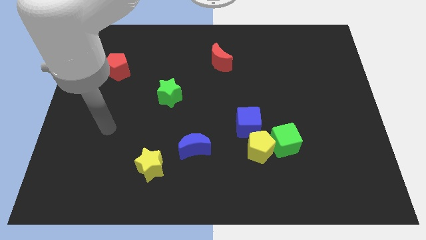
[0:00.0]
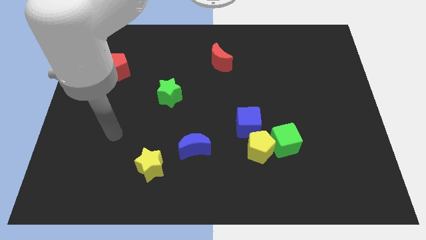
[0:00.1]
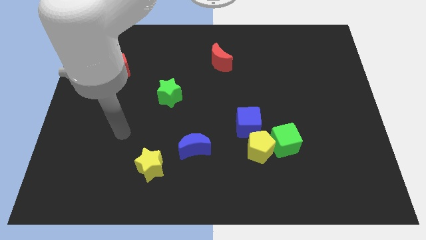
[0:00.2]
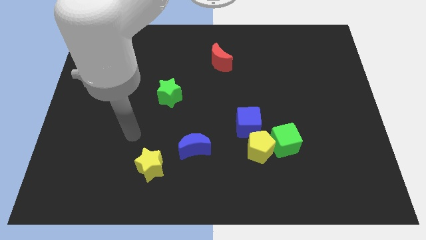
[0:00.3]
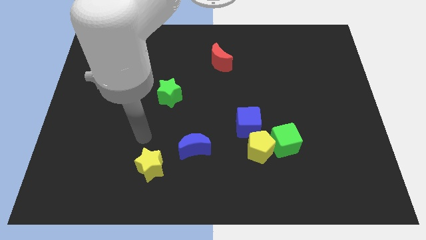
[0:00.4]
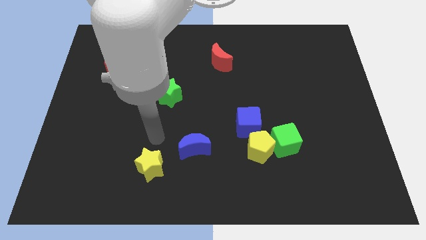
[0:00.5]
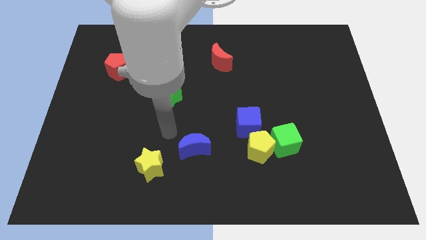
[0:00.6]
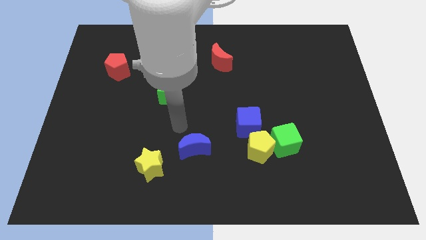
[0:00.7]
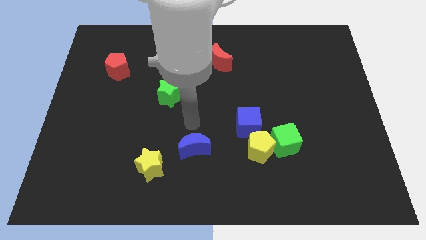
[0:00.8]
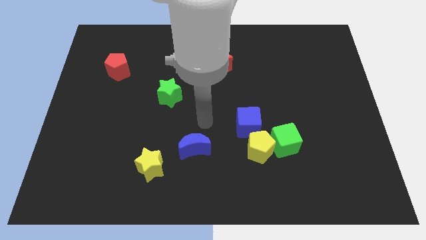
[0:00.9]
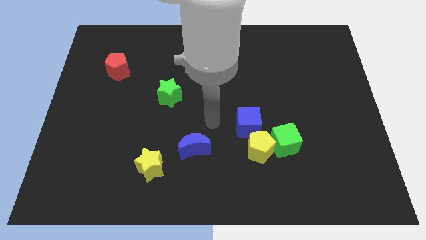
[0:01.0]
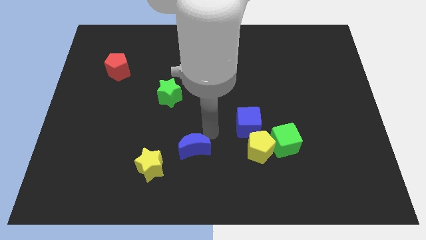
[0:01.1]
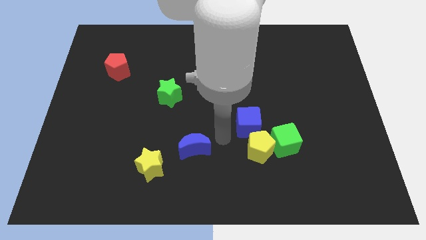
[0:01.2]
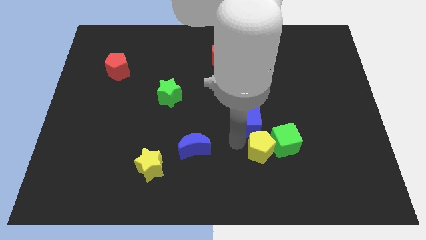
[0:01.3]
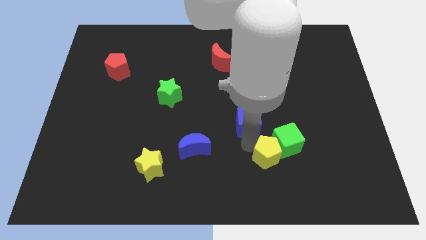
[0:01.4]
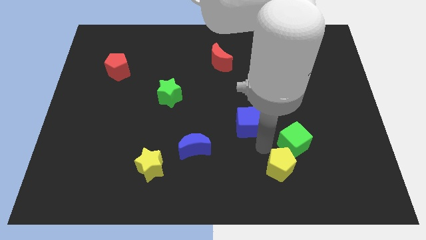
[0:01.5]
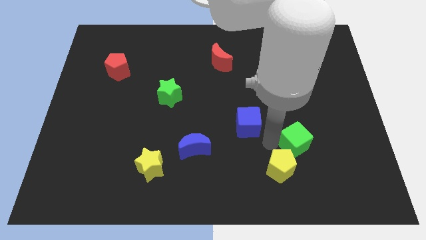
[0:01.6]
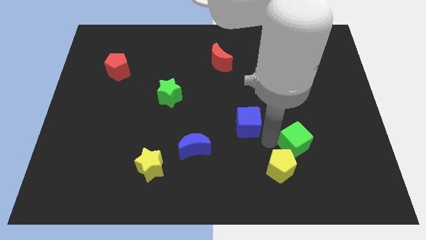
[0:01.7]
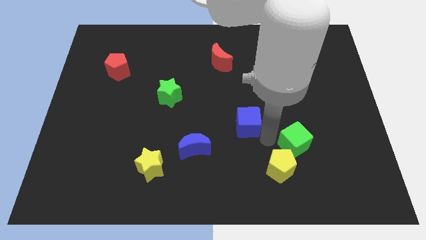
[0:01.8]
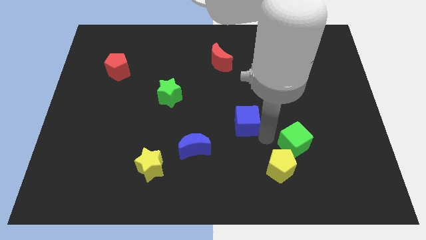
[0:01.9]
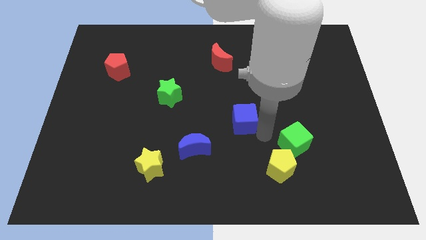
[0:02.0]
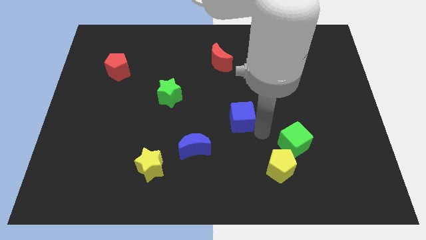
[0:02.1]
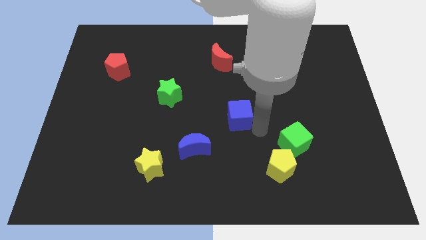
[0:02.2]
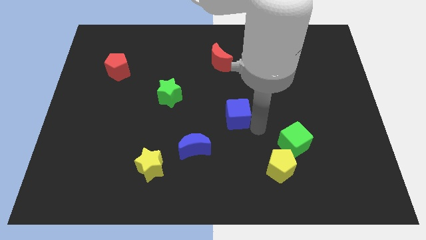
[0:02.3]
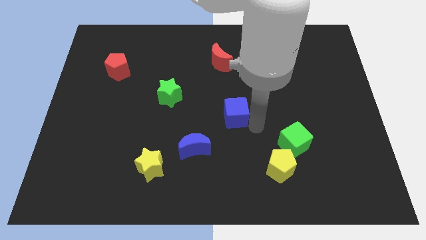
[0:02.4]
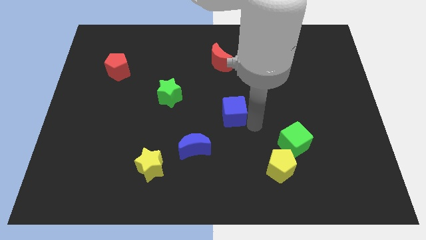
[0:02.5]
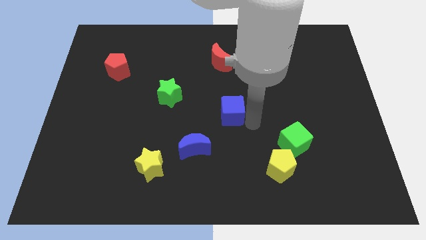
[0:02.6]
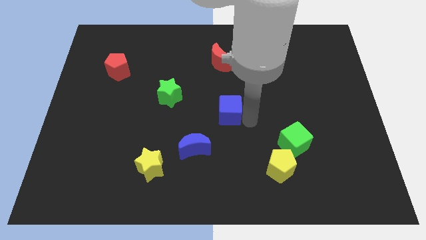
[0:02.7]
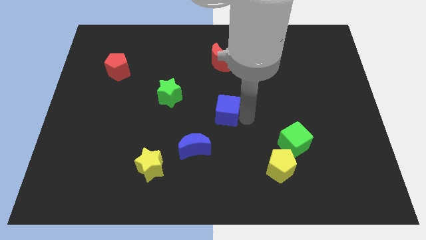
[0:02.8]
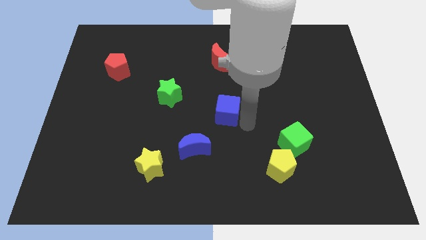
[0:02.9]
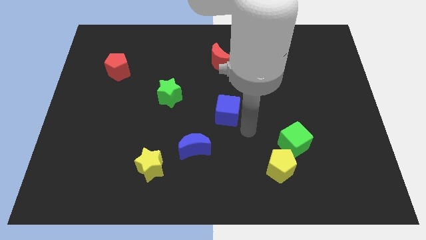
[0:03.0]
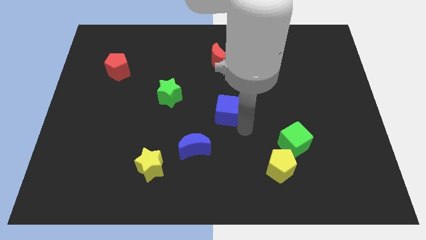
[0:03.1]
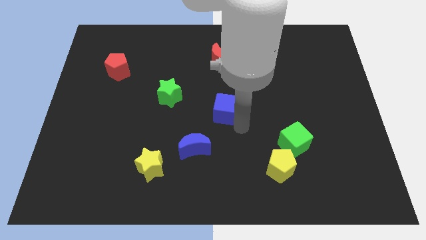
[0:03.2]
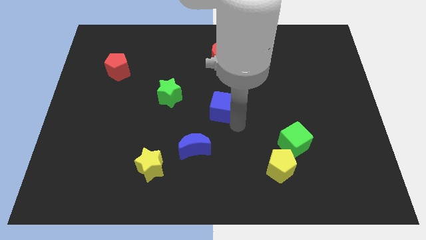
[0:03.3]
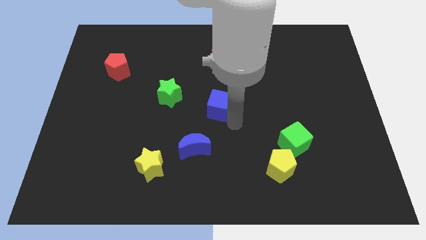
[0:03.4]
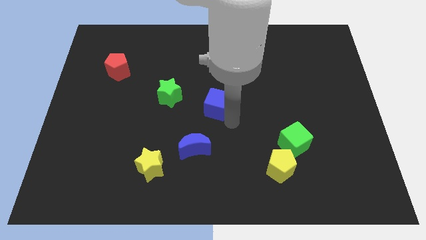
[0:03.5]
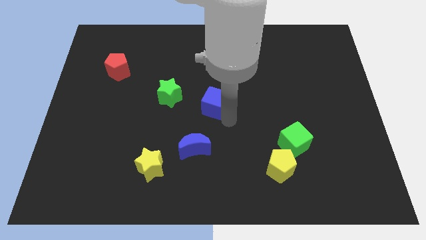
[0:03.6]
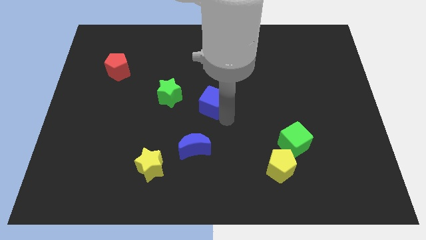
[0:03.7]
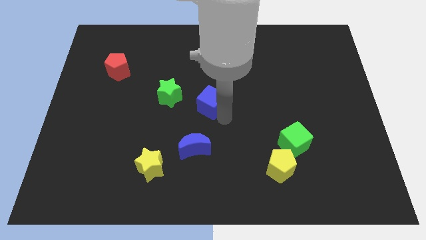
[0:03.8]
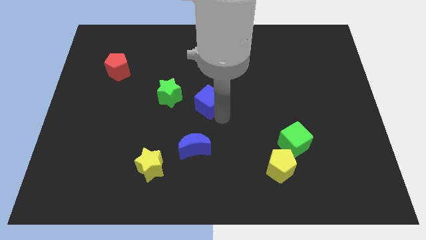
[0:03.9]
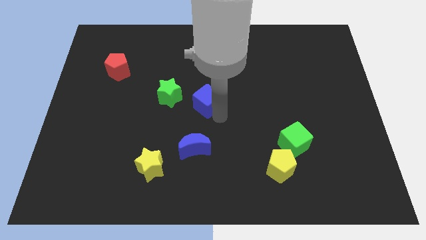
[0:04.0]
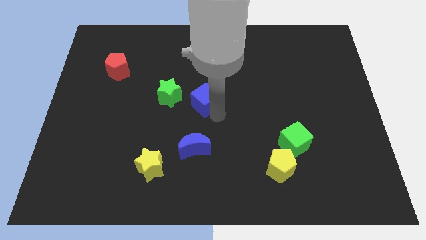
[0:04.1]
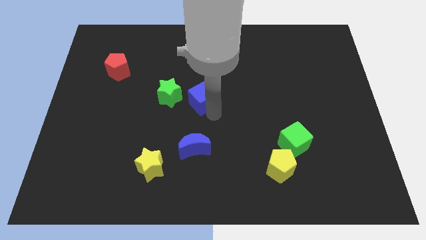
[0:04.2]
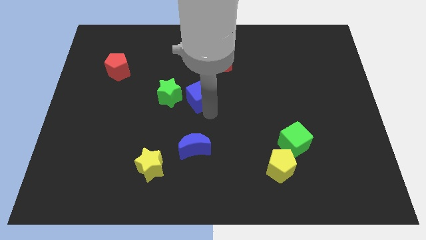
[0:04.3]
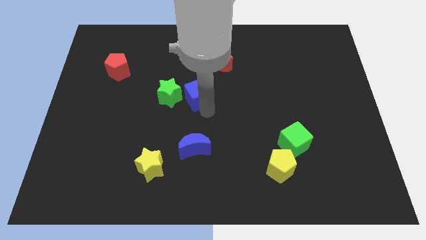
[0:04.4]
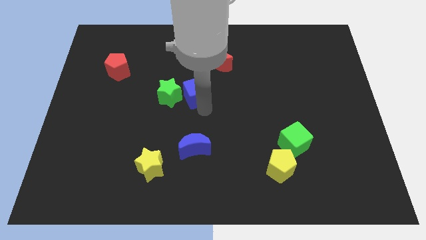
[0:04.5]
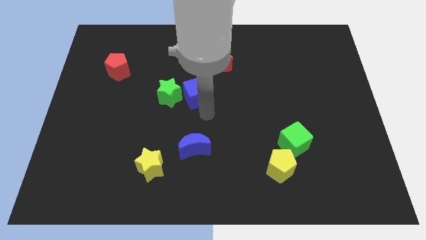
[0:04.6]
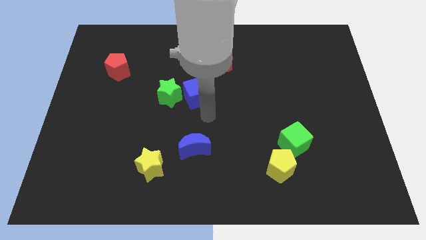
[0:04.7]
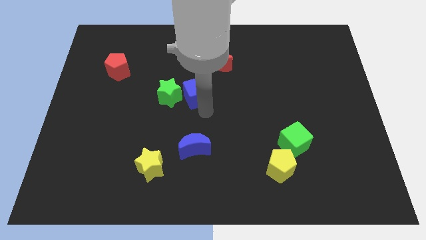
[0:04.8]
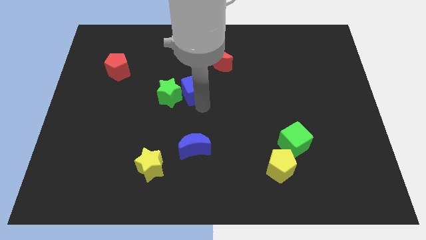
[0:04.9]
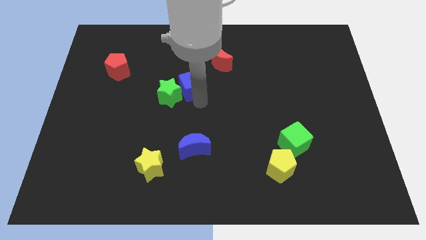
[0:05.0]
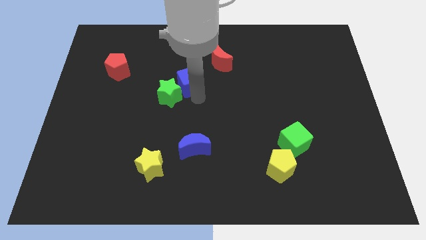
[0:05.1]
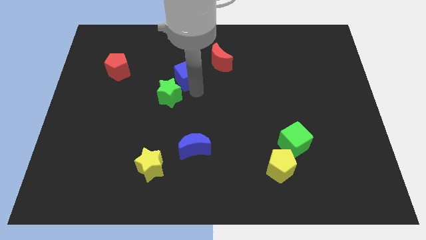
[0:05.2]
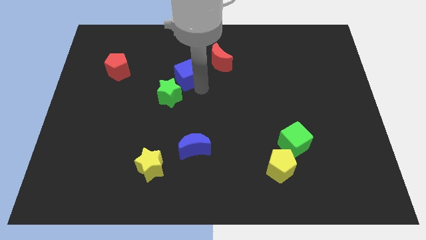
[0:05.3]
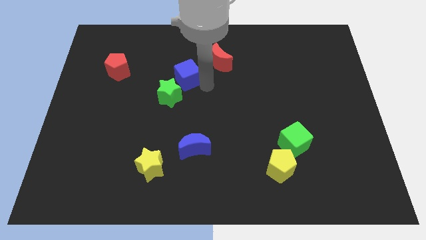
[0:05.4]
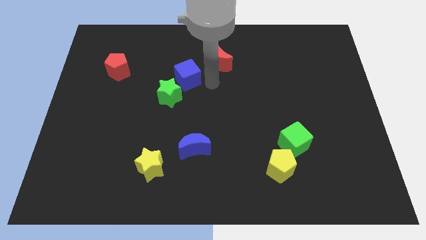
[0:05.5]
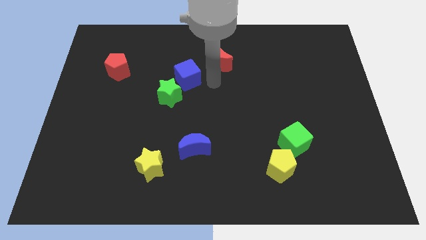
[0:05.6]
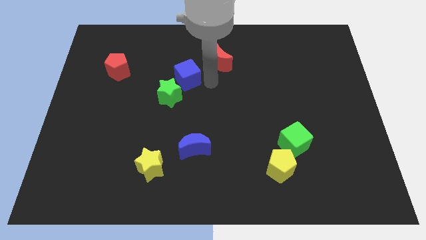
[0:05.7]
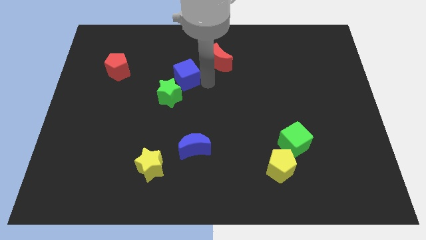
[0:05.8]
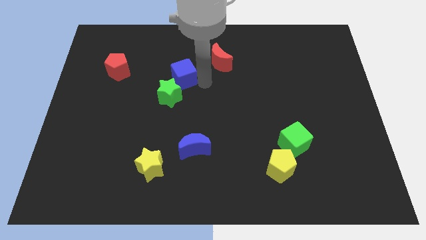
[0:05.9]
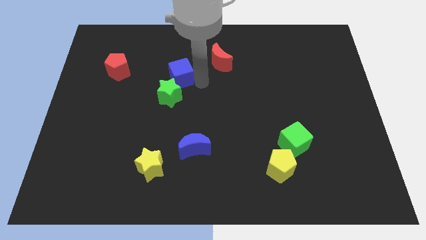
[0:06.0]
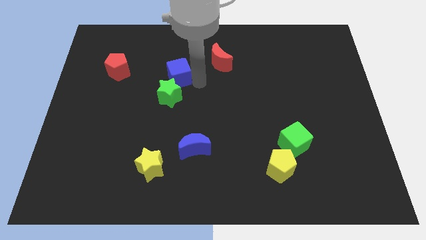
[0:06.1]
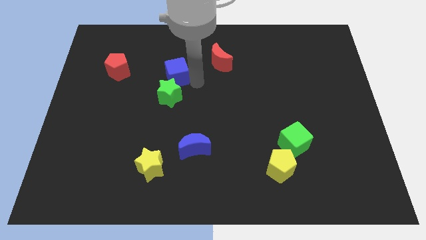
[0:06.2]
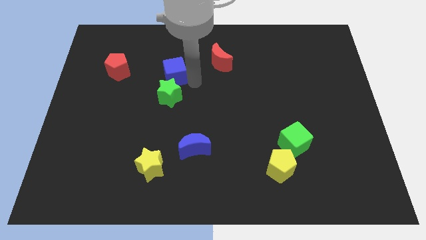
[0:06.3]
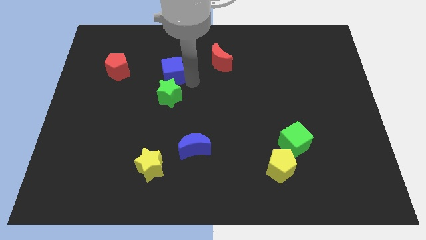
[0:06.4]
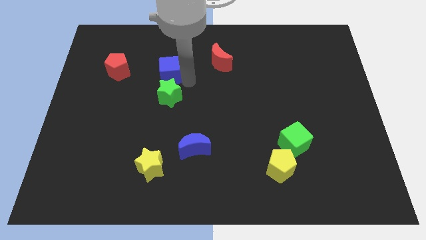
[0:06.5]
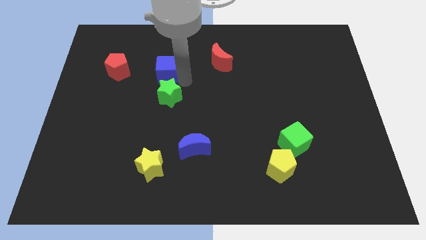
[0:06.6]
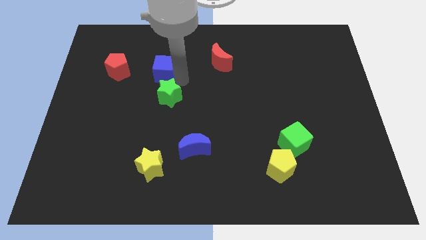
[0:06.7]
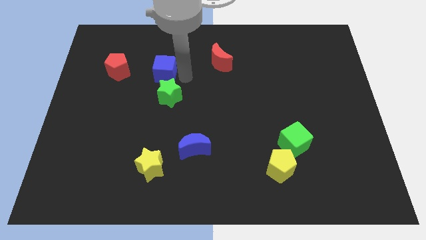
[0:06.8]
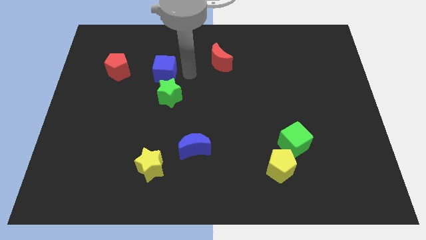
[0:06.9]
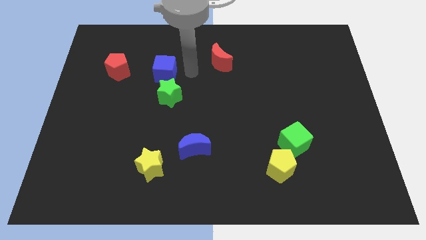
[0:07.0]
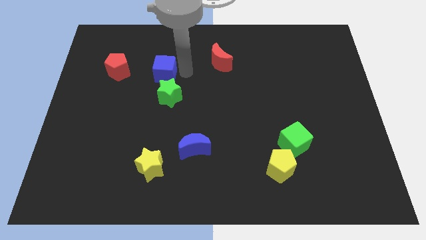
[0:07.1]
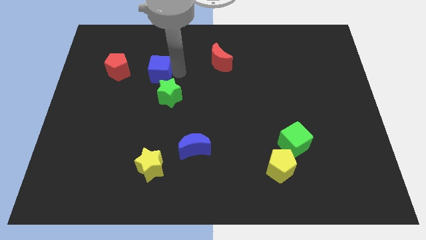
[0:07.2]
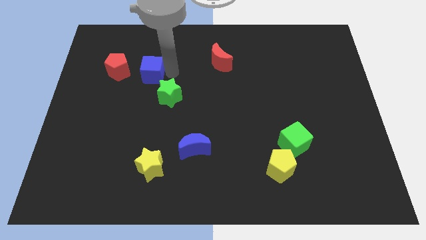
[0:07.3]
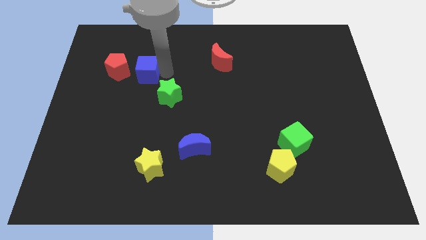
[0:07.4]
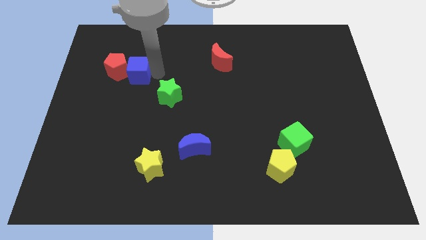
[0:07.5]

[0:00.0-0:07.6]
push the blue cube close to the red pentagon

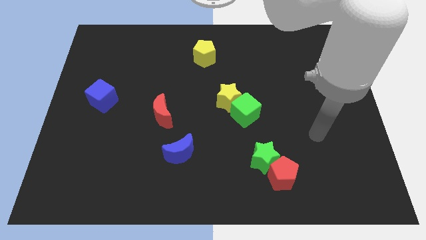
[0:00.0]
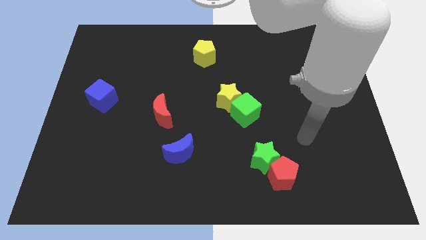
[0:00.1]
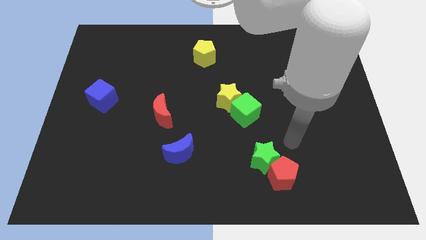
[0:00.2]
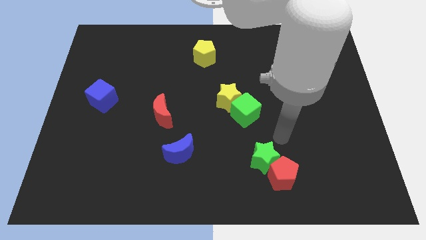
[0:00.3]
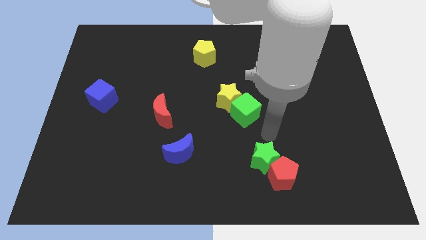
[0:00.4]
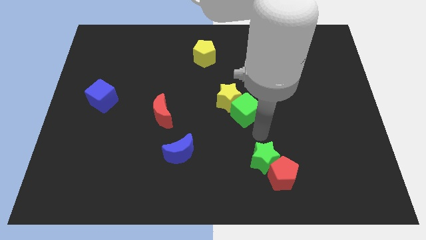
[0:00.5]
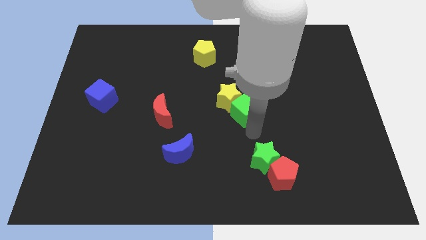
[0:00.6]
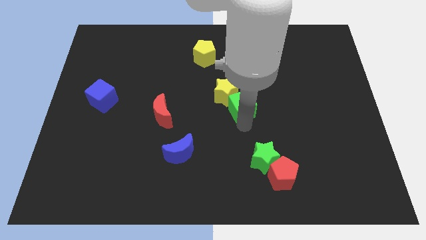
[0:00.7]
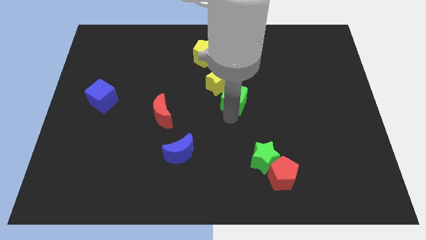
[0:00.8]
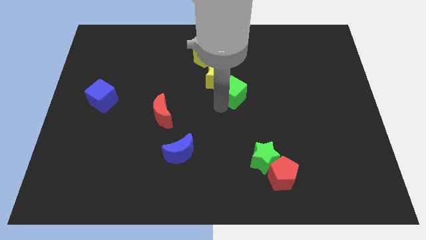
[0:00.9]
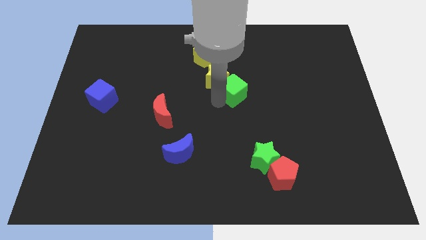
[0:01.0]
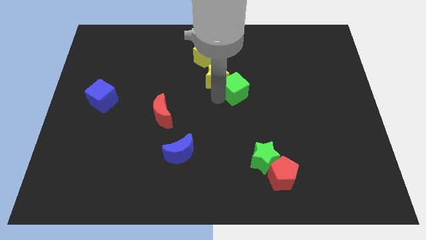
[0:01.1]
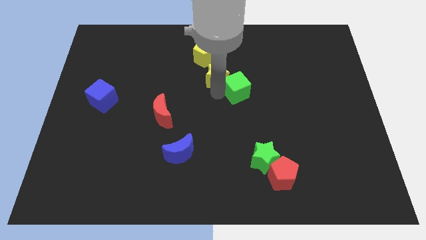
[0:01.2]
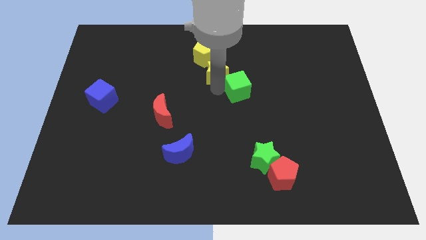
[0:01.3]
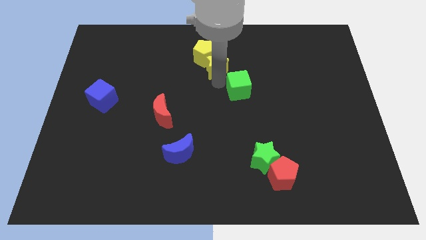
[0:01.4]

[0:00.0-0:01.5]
push the yellow star close to the yellow pentagon
